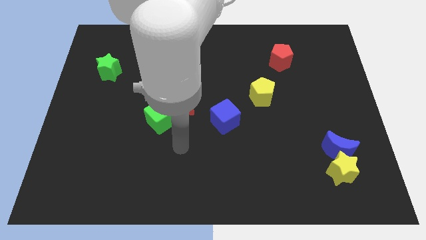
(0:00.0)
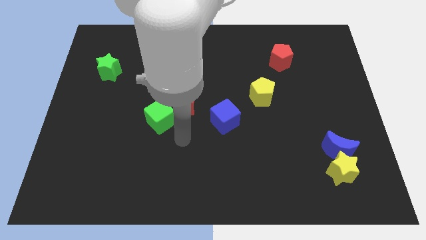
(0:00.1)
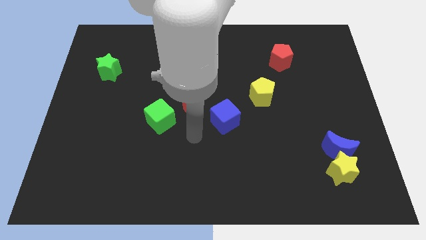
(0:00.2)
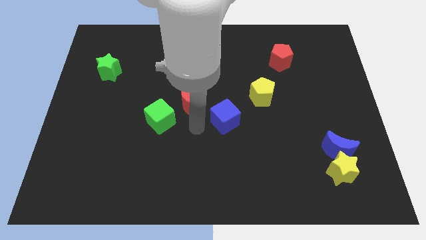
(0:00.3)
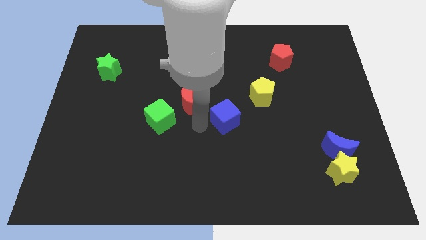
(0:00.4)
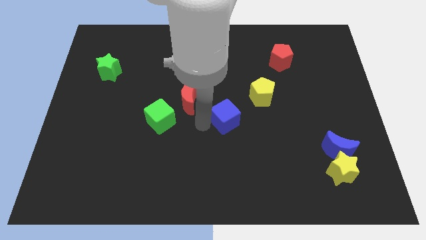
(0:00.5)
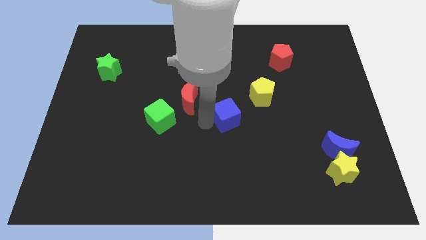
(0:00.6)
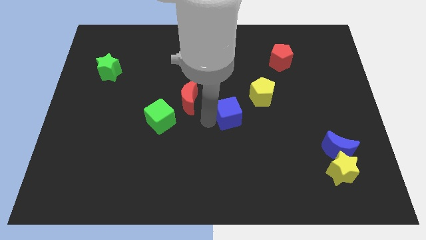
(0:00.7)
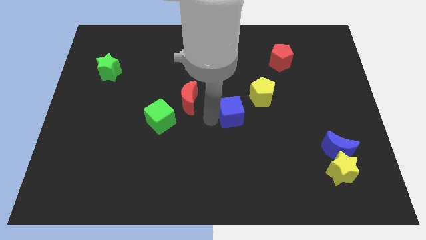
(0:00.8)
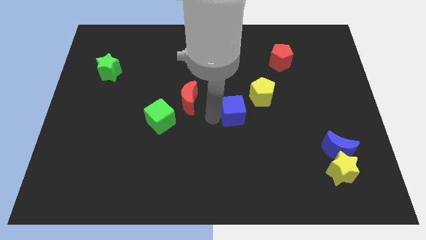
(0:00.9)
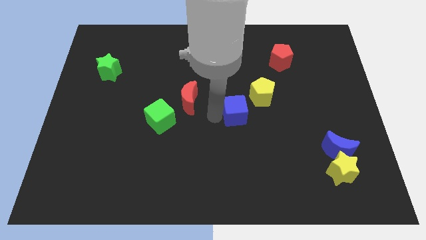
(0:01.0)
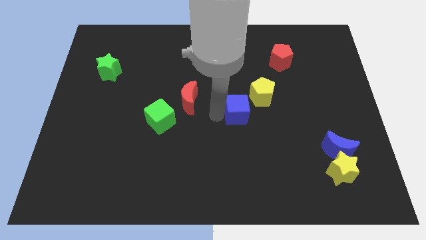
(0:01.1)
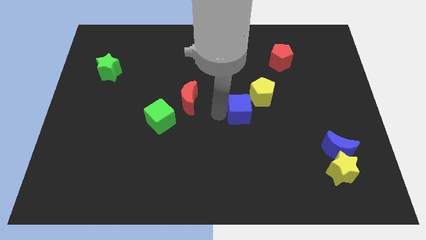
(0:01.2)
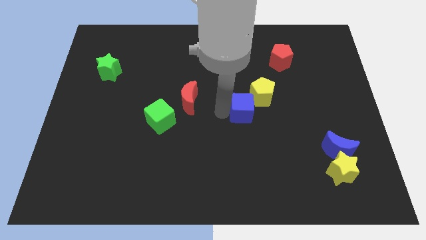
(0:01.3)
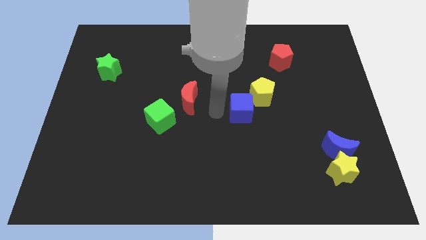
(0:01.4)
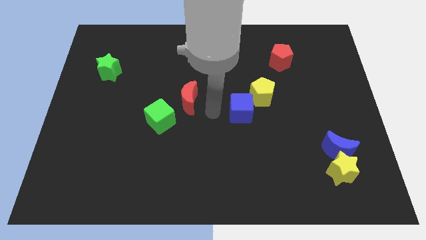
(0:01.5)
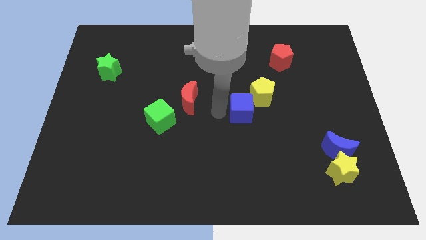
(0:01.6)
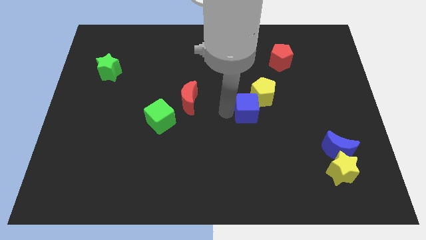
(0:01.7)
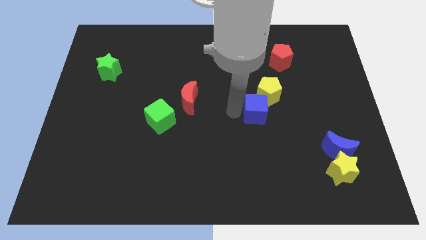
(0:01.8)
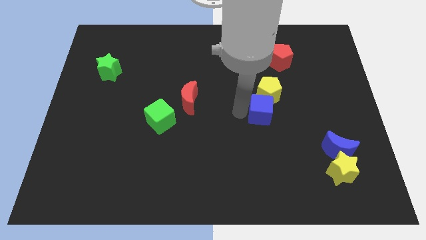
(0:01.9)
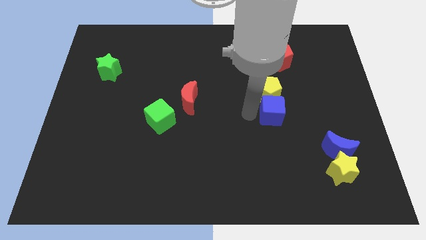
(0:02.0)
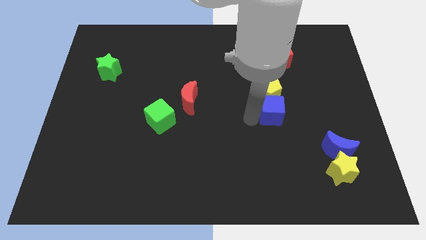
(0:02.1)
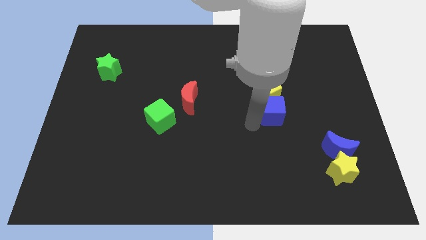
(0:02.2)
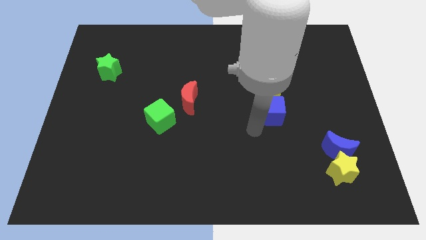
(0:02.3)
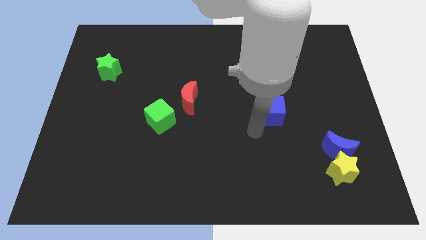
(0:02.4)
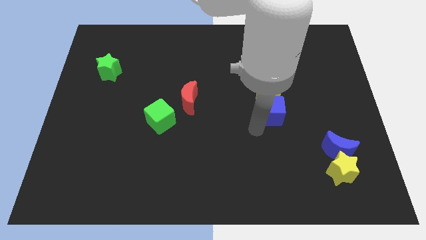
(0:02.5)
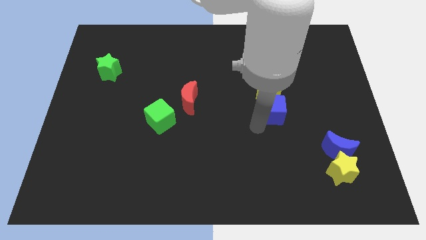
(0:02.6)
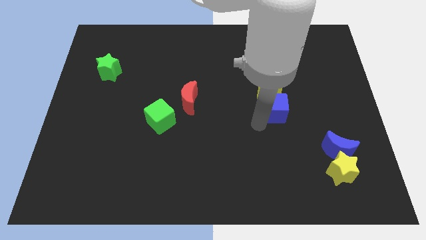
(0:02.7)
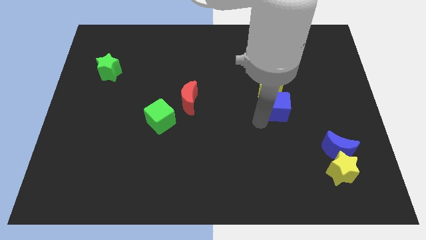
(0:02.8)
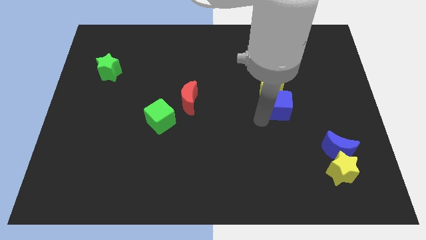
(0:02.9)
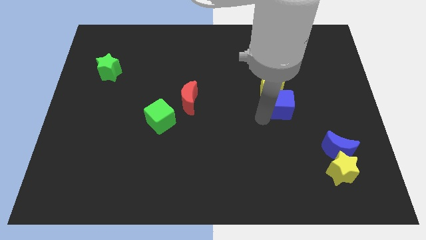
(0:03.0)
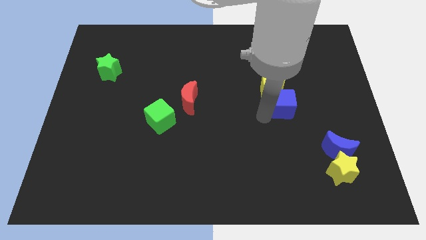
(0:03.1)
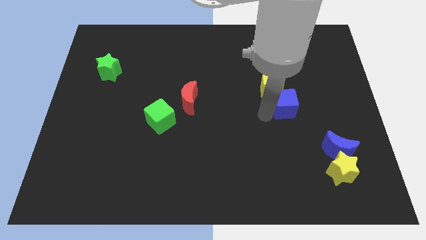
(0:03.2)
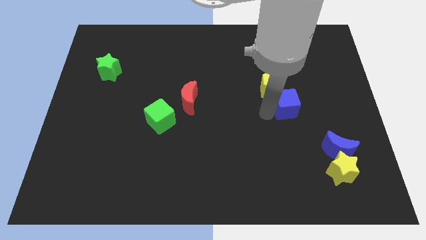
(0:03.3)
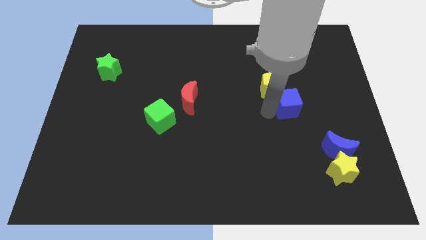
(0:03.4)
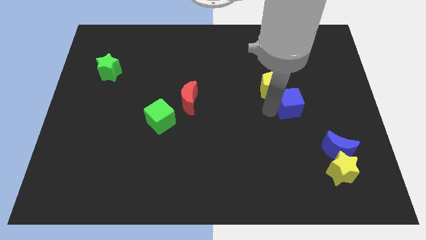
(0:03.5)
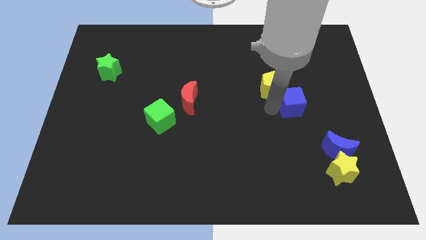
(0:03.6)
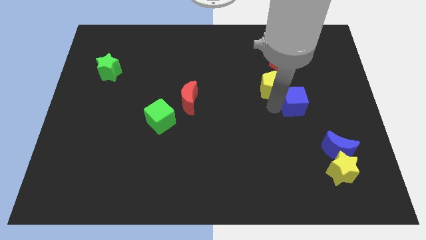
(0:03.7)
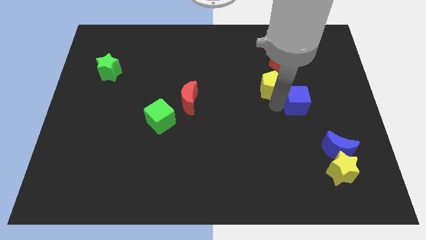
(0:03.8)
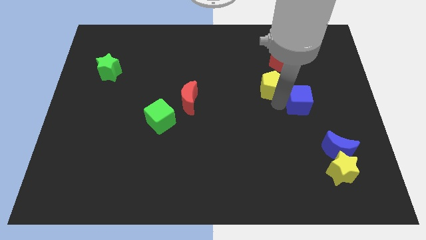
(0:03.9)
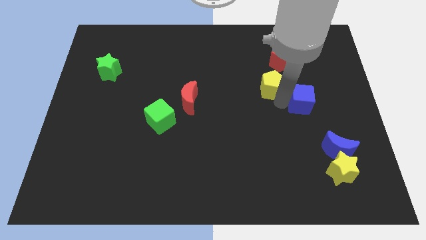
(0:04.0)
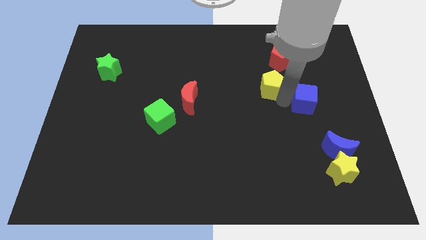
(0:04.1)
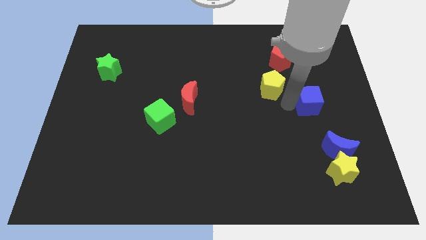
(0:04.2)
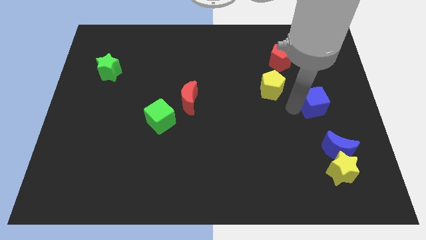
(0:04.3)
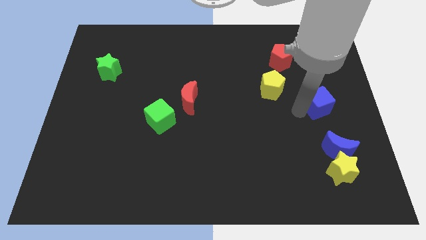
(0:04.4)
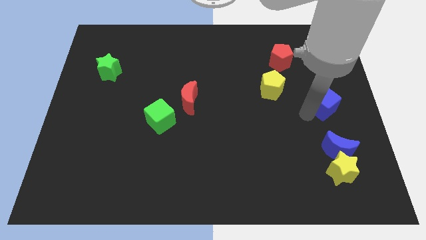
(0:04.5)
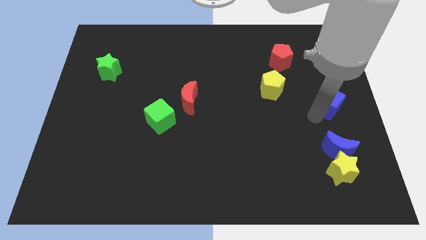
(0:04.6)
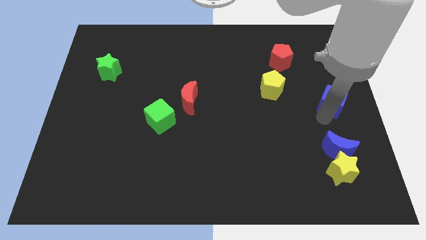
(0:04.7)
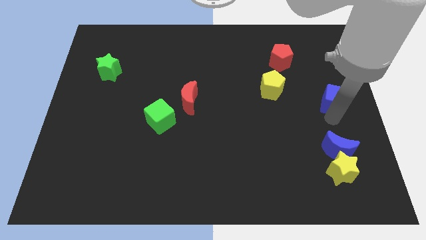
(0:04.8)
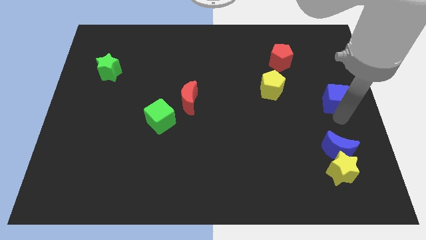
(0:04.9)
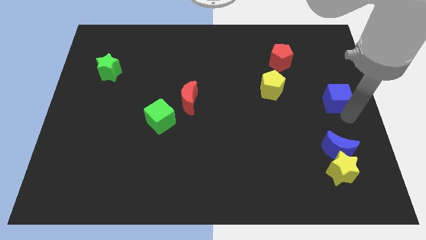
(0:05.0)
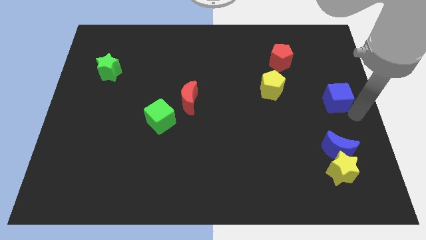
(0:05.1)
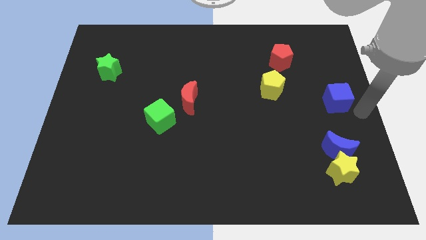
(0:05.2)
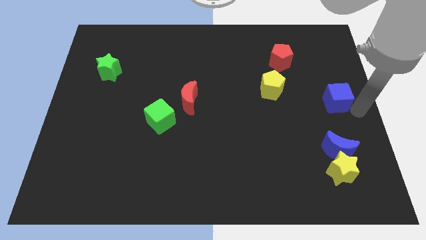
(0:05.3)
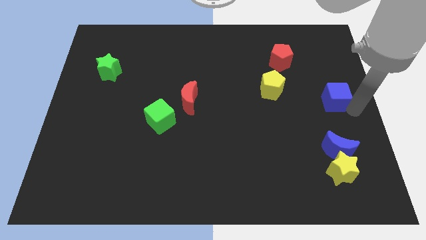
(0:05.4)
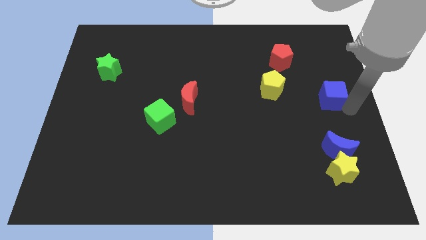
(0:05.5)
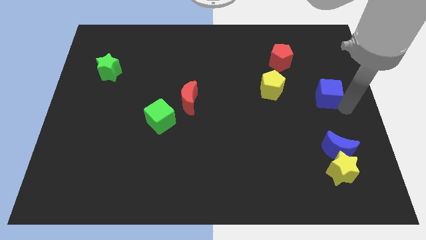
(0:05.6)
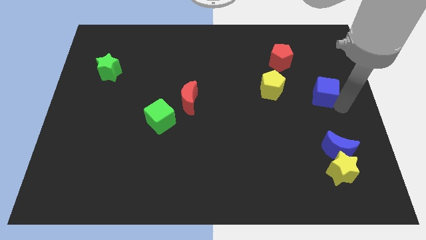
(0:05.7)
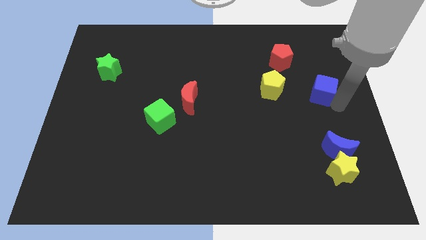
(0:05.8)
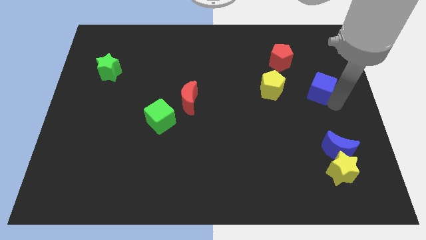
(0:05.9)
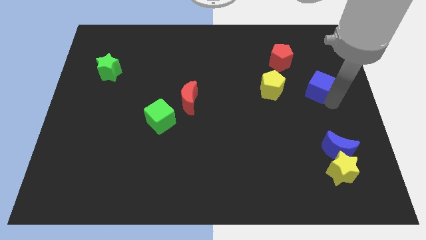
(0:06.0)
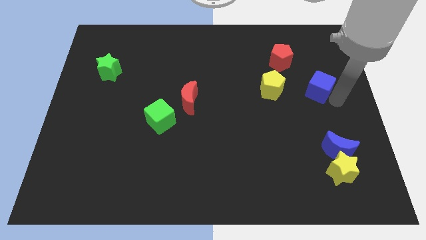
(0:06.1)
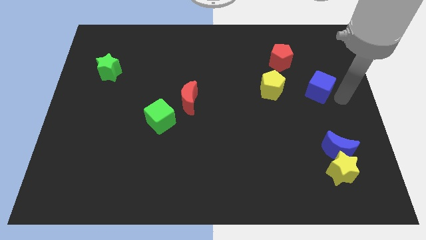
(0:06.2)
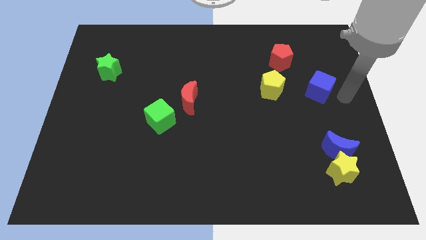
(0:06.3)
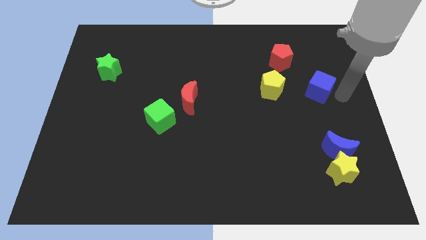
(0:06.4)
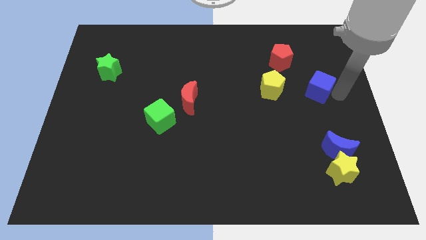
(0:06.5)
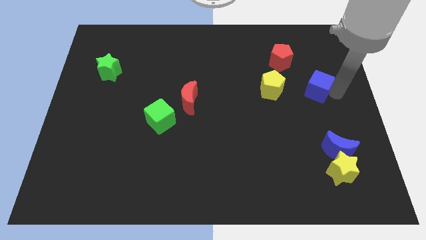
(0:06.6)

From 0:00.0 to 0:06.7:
move the blue cube to the bottom right side of the red pentagon
